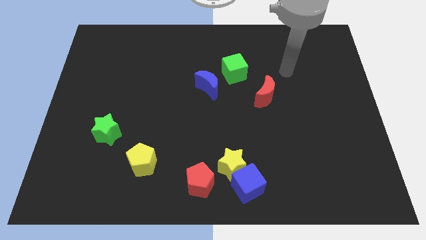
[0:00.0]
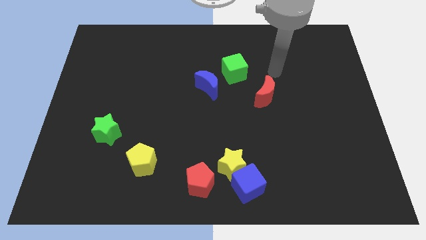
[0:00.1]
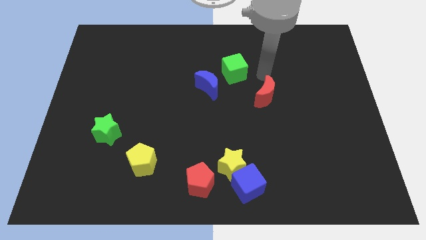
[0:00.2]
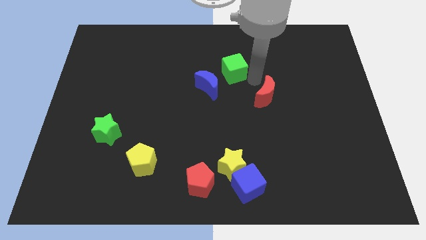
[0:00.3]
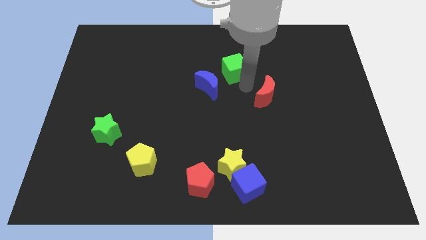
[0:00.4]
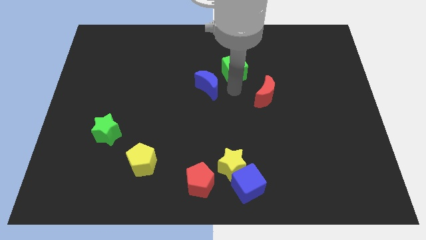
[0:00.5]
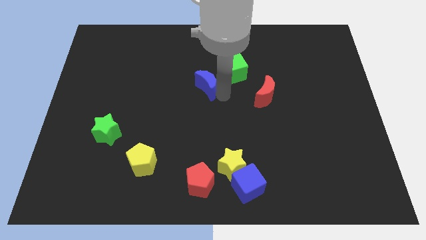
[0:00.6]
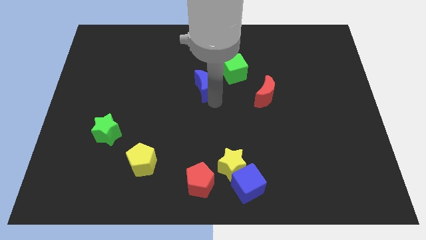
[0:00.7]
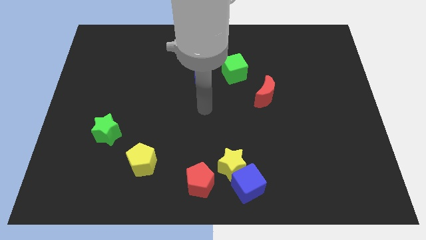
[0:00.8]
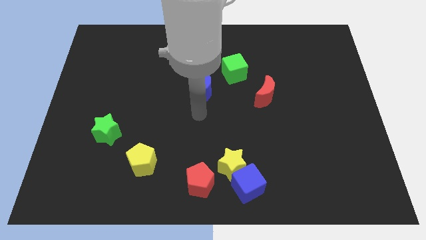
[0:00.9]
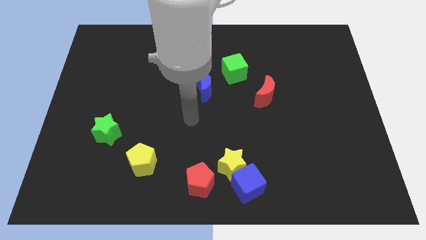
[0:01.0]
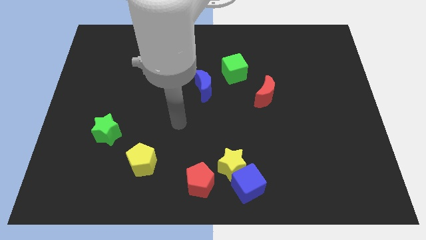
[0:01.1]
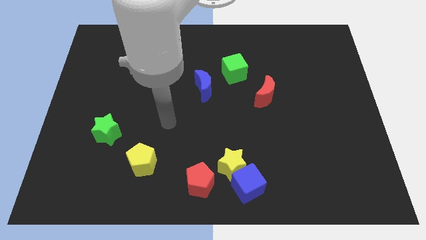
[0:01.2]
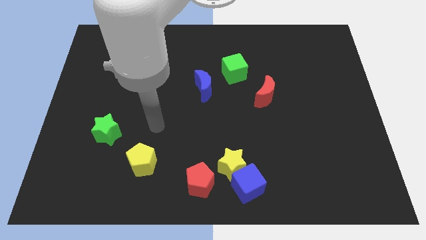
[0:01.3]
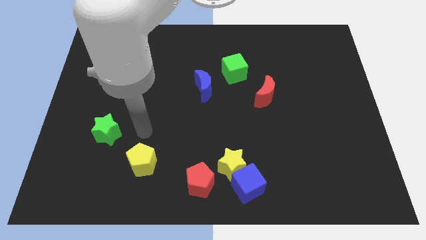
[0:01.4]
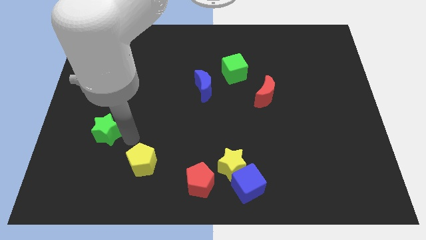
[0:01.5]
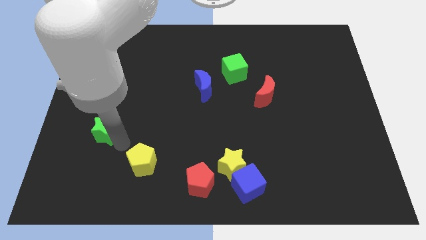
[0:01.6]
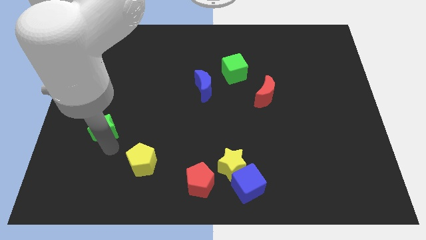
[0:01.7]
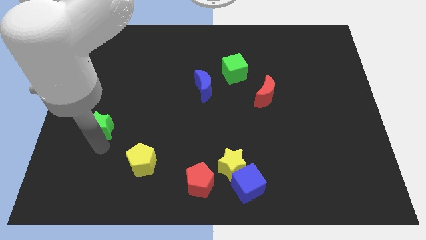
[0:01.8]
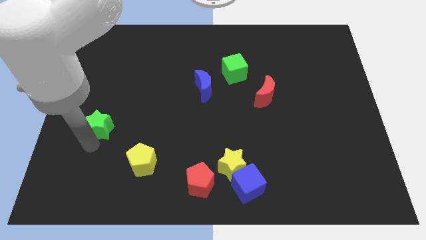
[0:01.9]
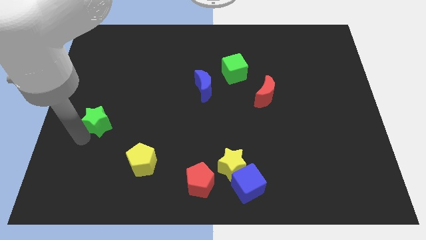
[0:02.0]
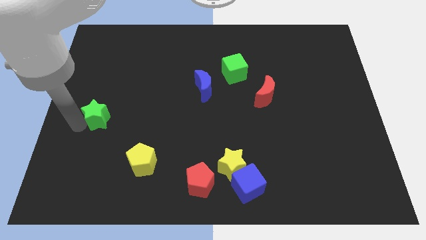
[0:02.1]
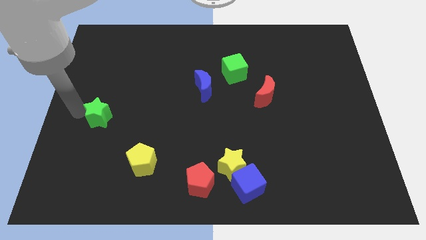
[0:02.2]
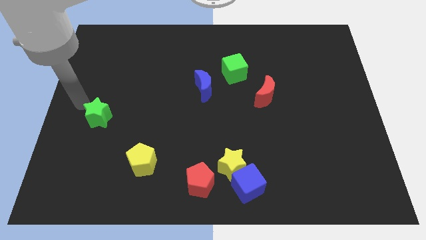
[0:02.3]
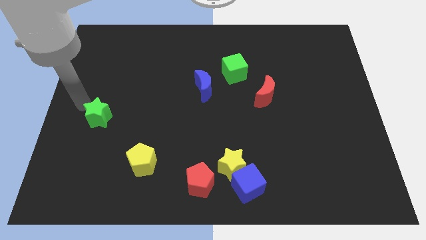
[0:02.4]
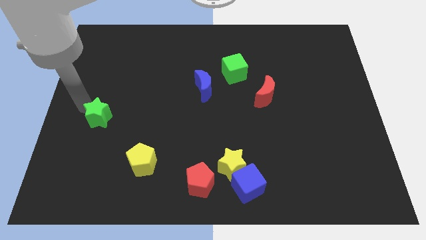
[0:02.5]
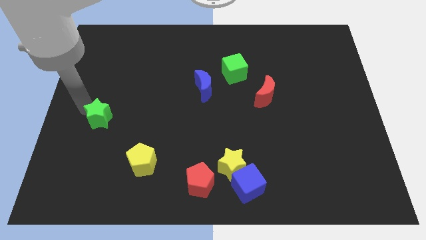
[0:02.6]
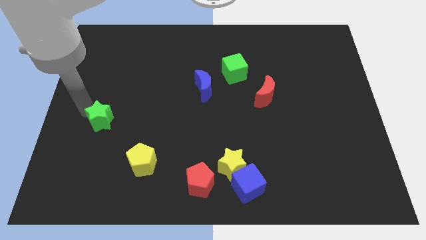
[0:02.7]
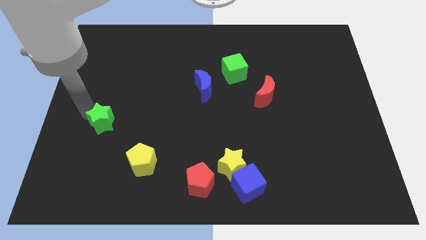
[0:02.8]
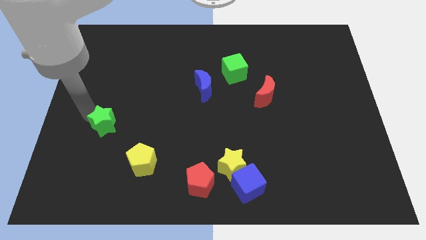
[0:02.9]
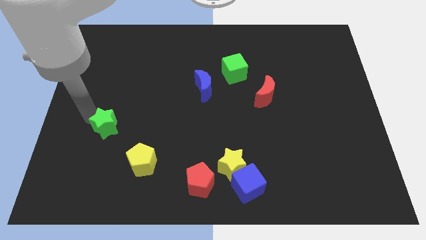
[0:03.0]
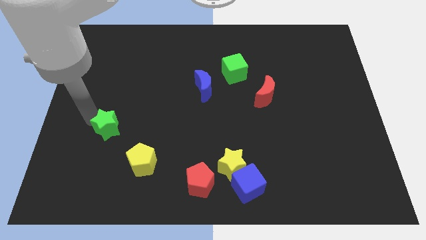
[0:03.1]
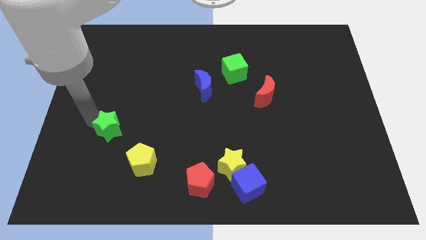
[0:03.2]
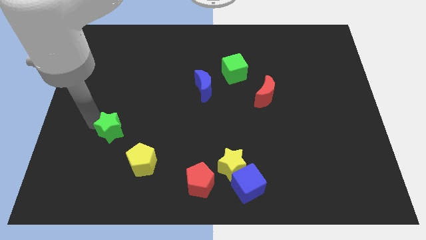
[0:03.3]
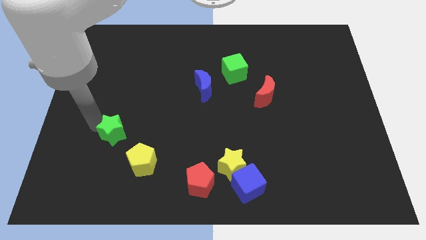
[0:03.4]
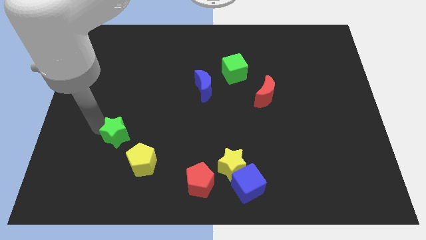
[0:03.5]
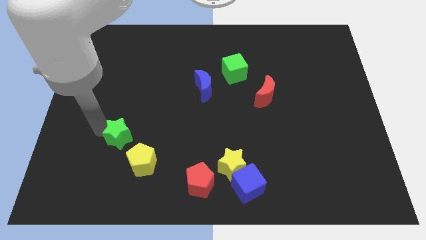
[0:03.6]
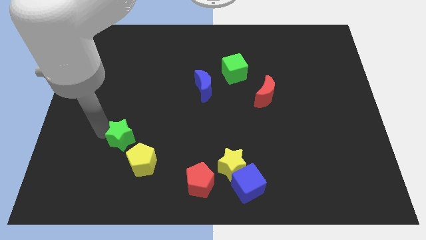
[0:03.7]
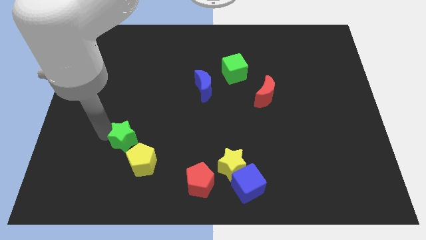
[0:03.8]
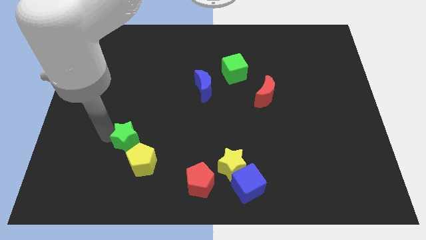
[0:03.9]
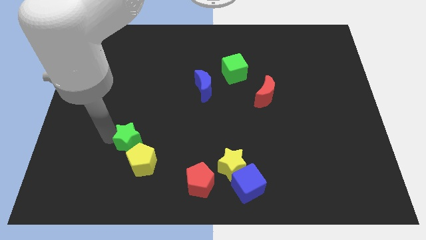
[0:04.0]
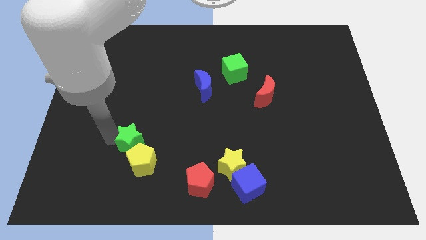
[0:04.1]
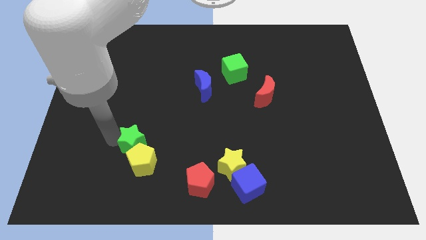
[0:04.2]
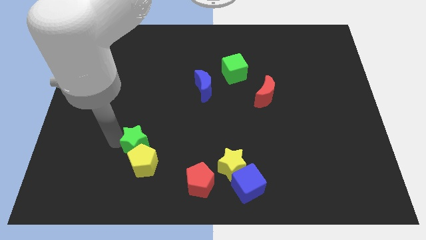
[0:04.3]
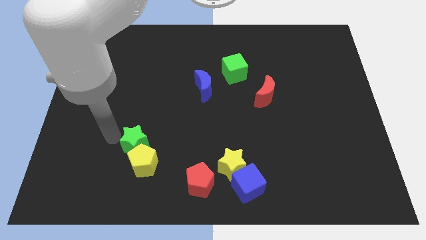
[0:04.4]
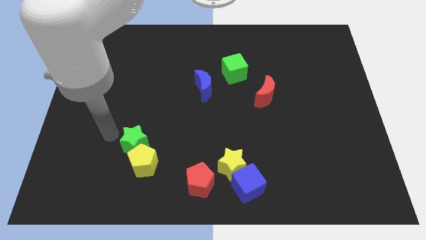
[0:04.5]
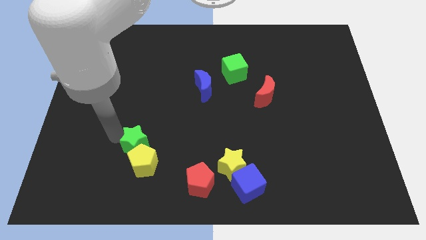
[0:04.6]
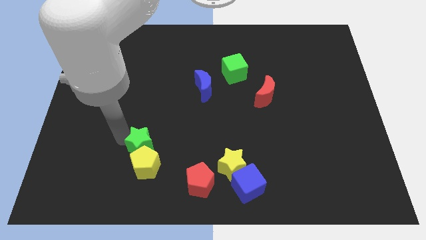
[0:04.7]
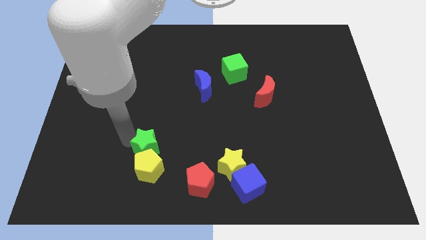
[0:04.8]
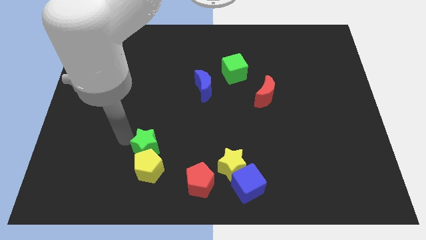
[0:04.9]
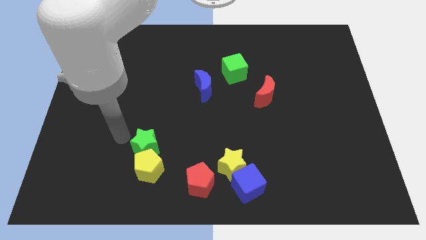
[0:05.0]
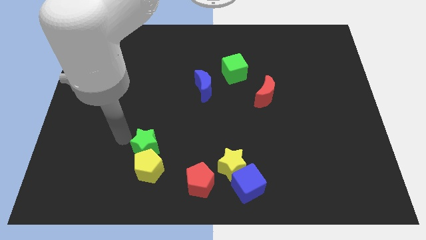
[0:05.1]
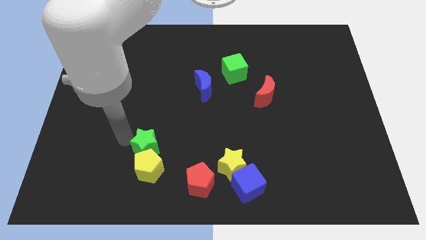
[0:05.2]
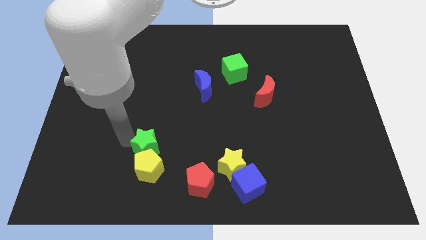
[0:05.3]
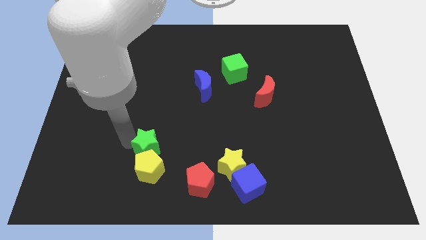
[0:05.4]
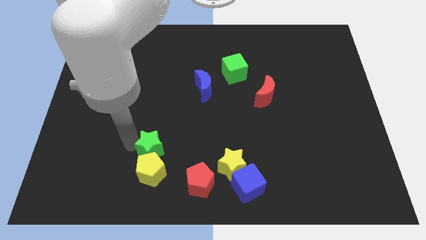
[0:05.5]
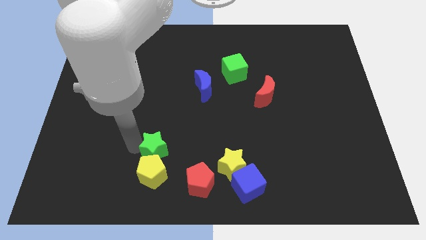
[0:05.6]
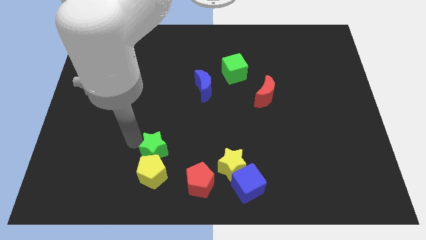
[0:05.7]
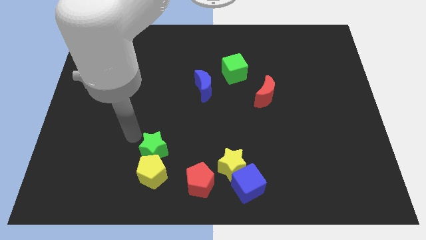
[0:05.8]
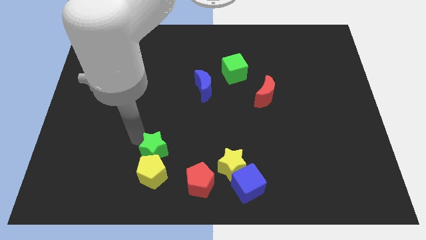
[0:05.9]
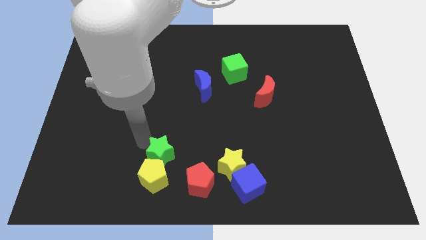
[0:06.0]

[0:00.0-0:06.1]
push the green star to the left of the yellow star

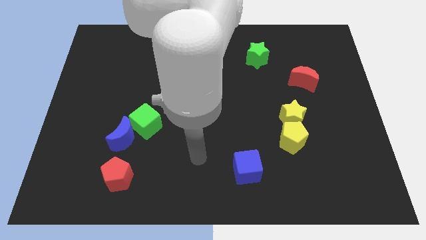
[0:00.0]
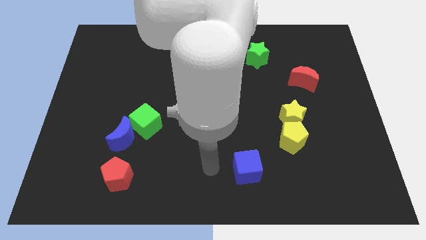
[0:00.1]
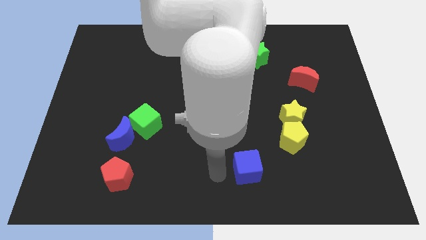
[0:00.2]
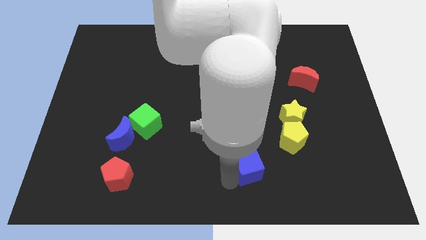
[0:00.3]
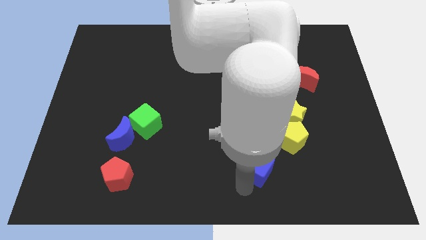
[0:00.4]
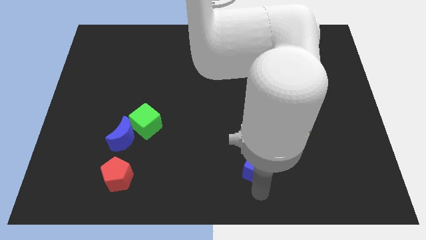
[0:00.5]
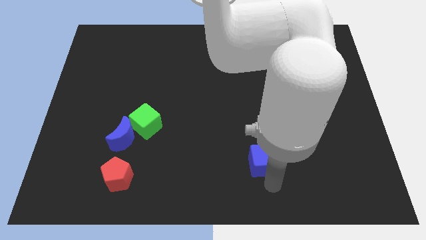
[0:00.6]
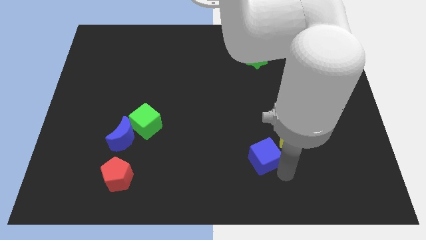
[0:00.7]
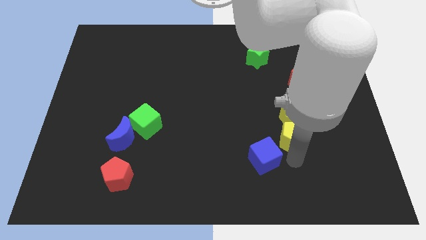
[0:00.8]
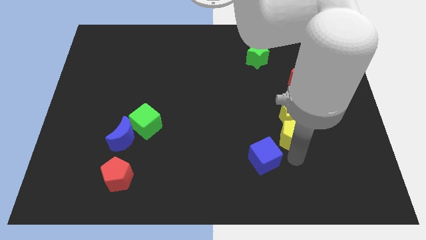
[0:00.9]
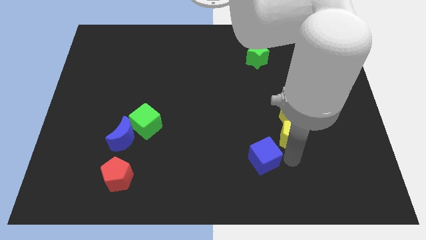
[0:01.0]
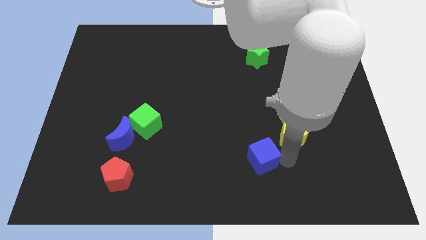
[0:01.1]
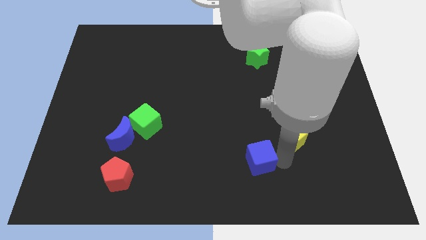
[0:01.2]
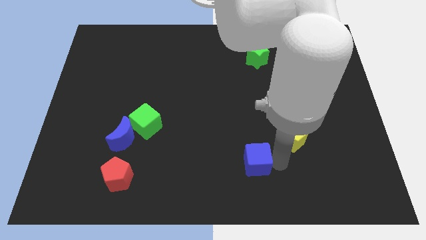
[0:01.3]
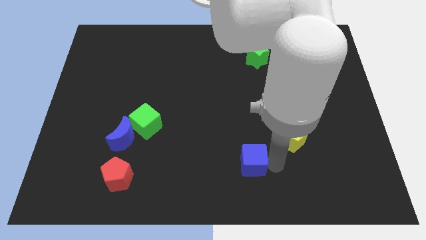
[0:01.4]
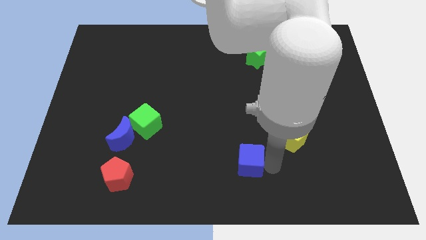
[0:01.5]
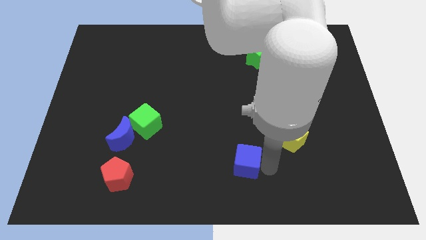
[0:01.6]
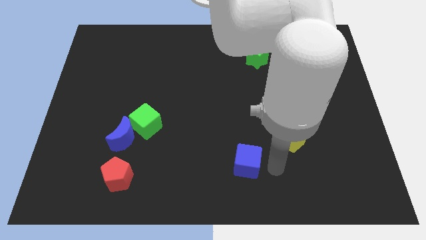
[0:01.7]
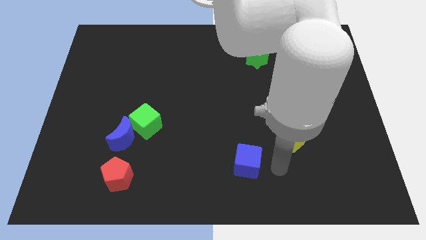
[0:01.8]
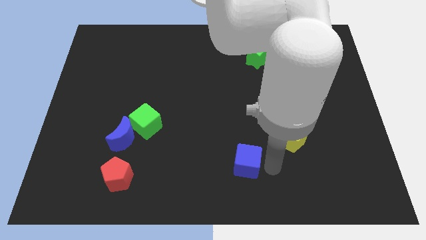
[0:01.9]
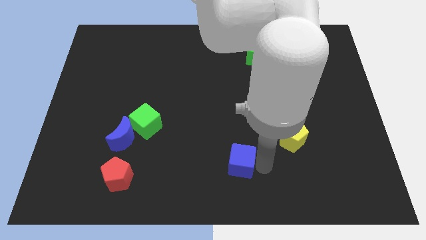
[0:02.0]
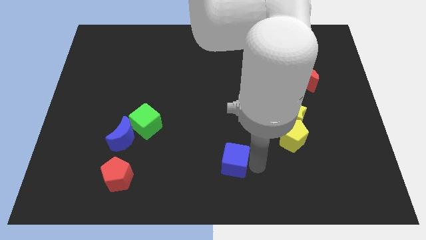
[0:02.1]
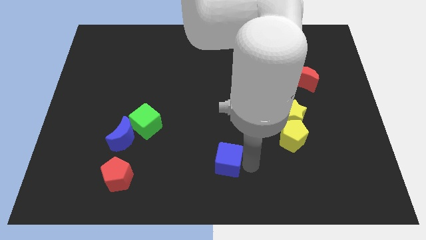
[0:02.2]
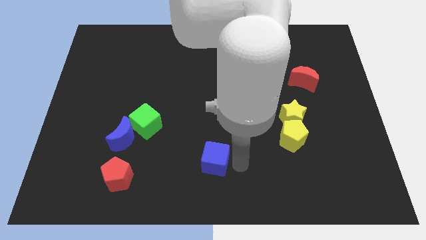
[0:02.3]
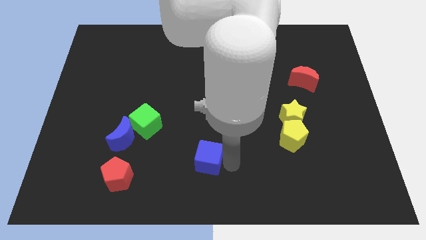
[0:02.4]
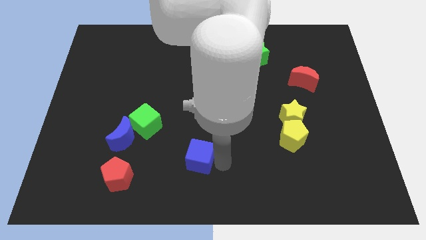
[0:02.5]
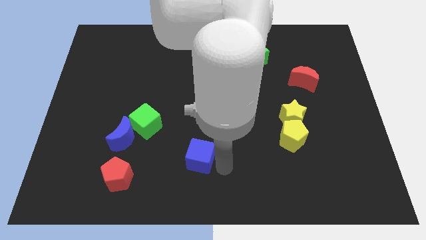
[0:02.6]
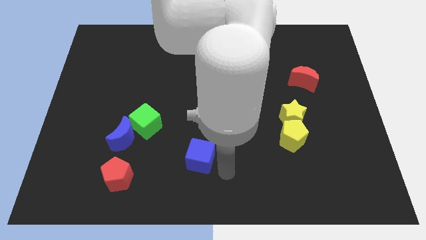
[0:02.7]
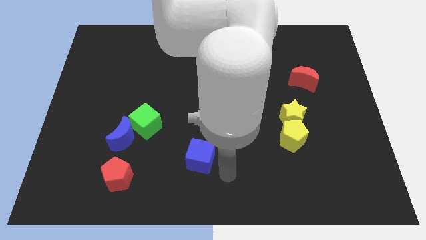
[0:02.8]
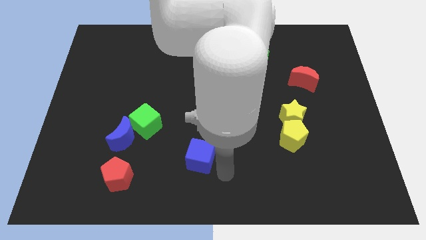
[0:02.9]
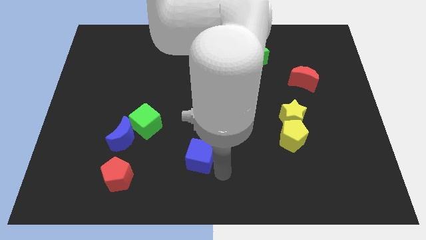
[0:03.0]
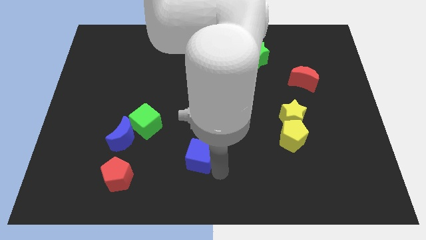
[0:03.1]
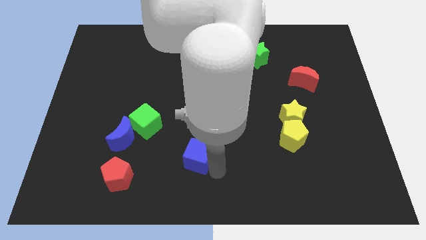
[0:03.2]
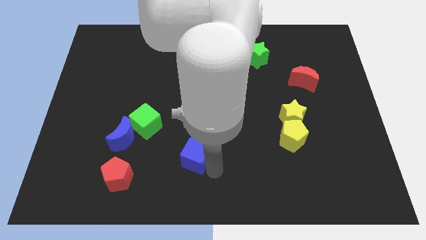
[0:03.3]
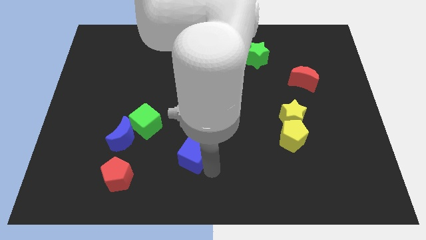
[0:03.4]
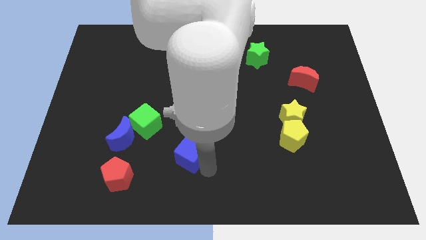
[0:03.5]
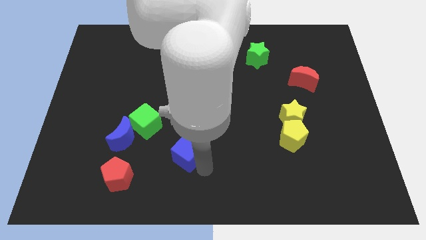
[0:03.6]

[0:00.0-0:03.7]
push the blue cube diagonally down and to the right of the green cube
